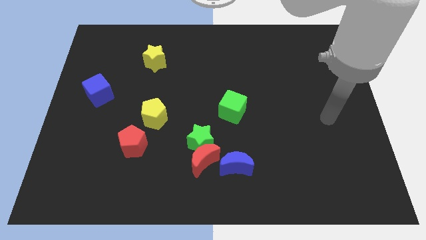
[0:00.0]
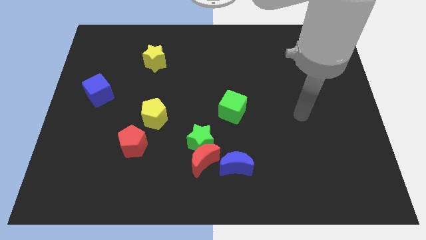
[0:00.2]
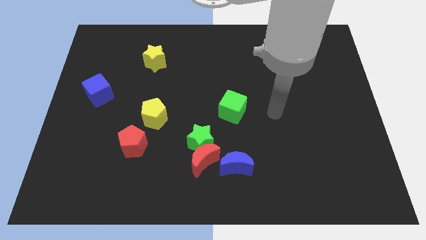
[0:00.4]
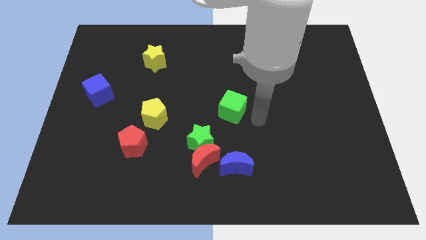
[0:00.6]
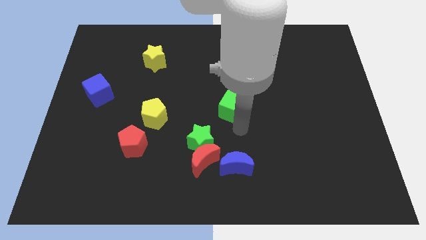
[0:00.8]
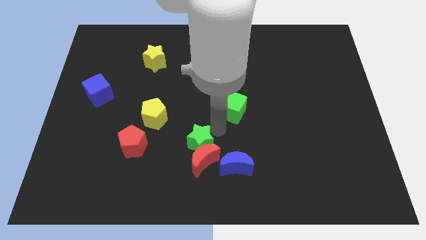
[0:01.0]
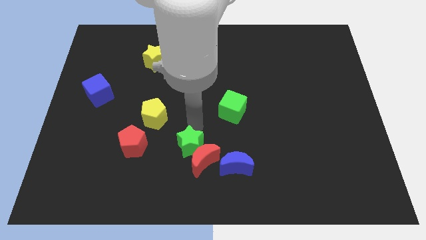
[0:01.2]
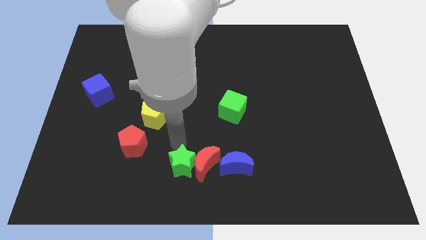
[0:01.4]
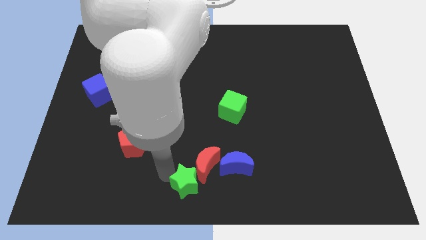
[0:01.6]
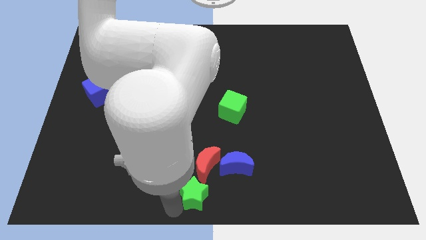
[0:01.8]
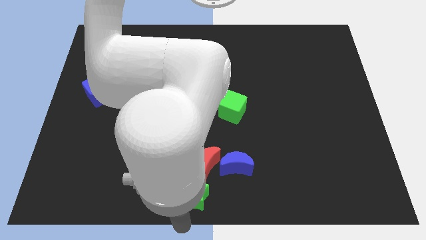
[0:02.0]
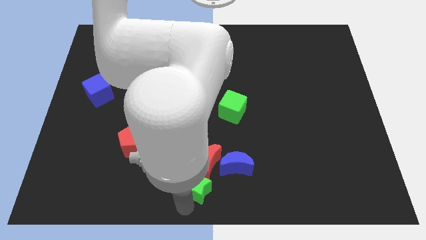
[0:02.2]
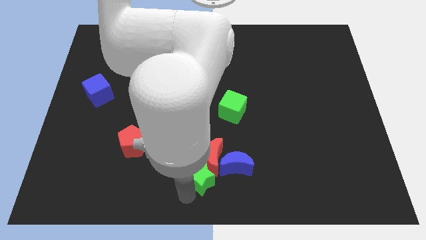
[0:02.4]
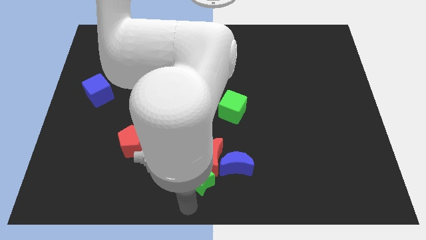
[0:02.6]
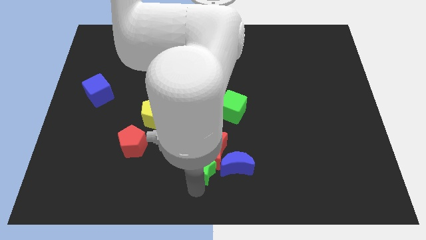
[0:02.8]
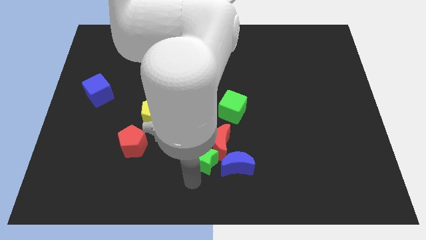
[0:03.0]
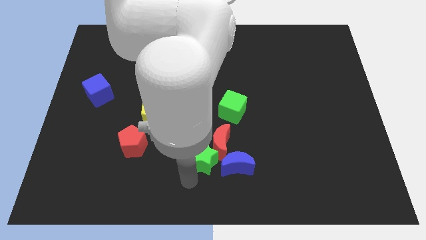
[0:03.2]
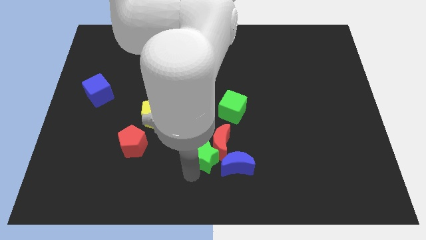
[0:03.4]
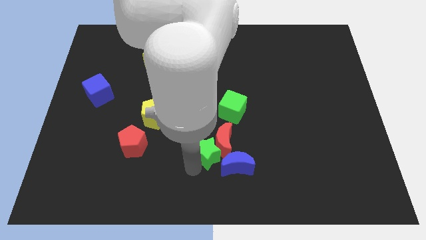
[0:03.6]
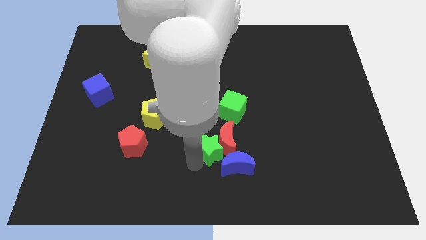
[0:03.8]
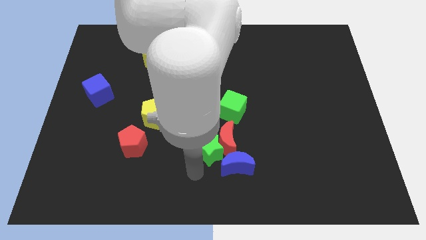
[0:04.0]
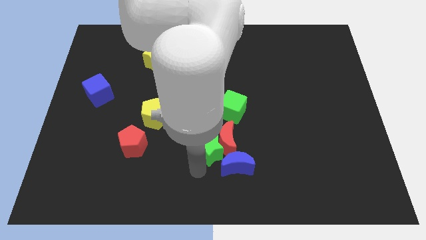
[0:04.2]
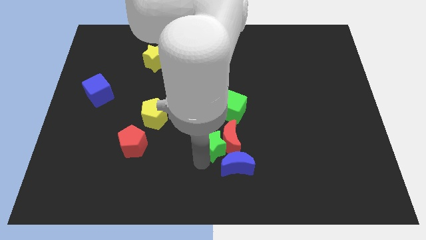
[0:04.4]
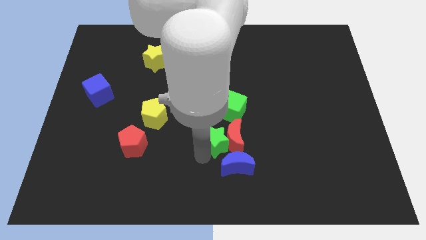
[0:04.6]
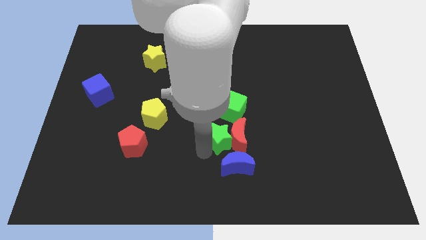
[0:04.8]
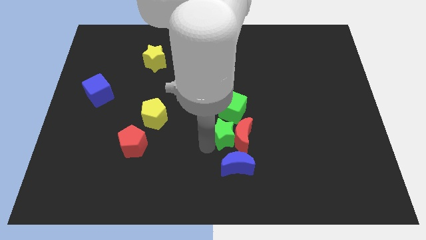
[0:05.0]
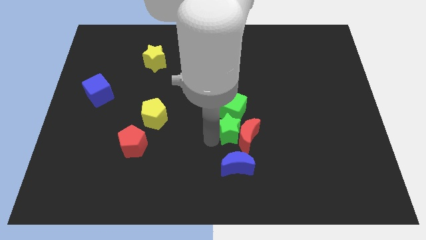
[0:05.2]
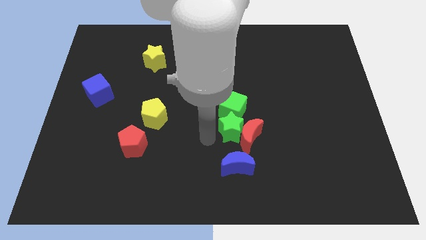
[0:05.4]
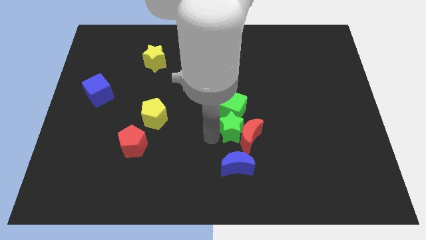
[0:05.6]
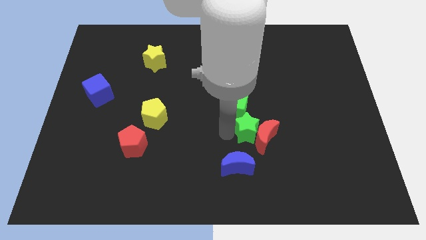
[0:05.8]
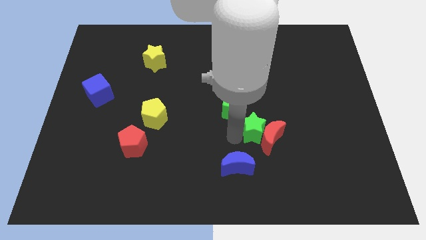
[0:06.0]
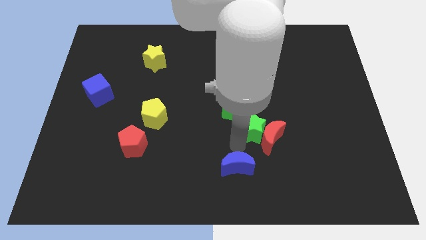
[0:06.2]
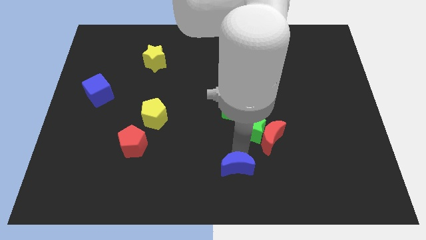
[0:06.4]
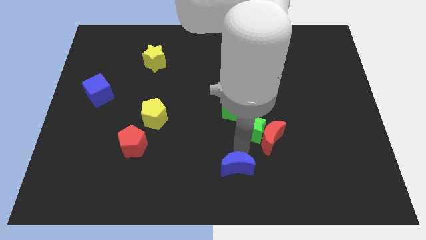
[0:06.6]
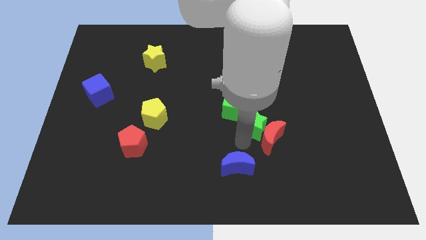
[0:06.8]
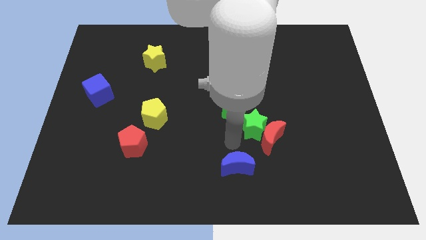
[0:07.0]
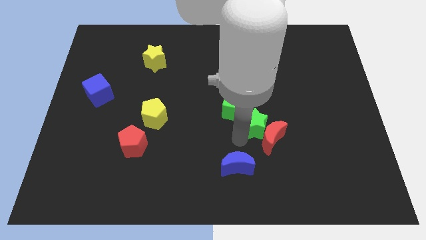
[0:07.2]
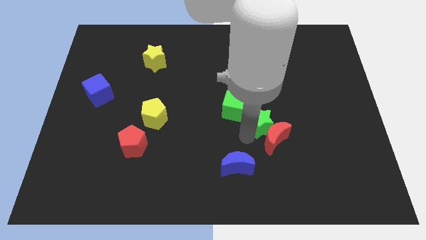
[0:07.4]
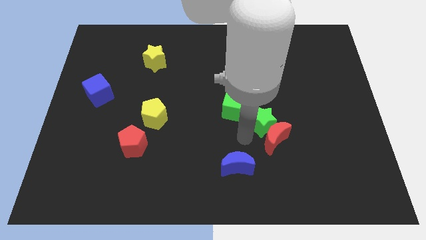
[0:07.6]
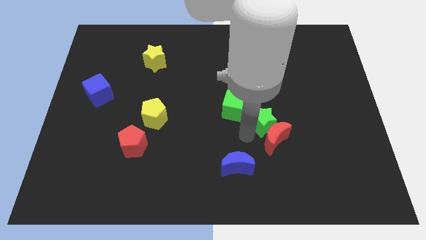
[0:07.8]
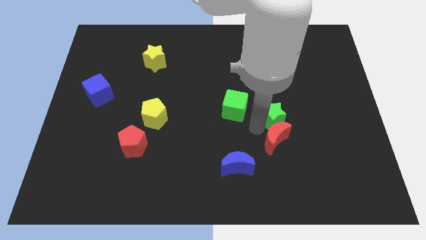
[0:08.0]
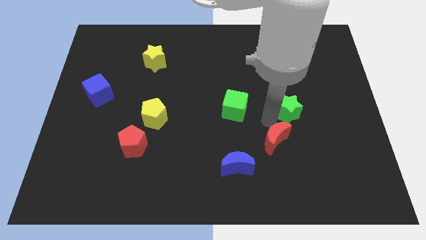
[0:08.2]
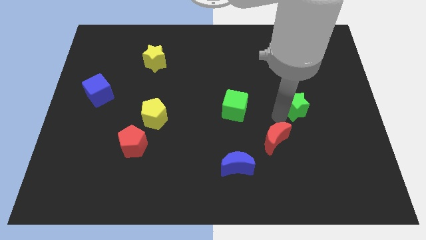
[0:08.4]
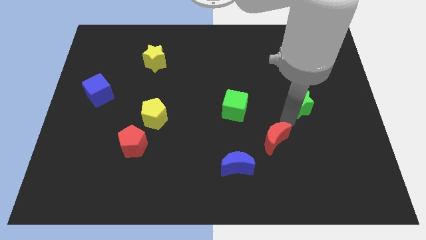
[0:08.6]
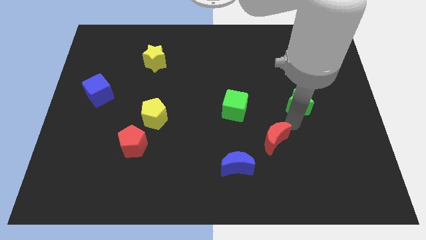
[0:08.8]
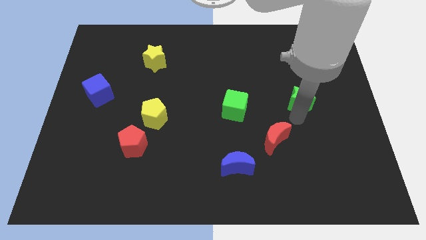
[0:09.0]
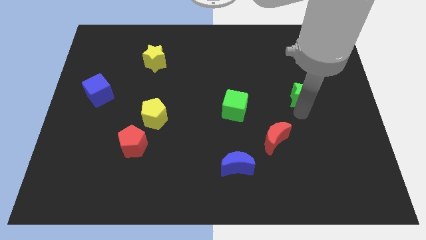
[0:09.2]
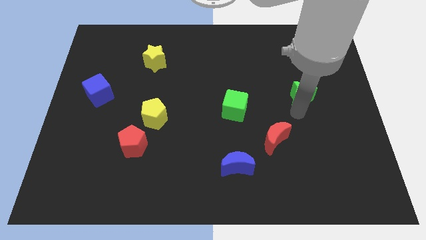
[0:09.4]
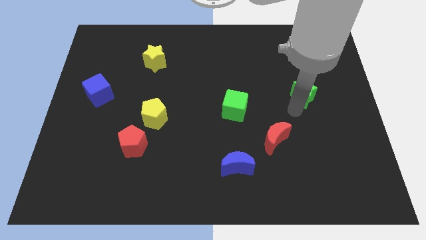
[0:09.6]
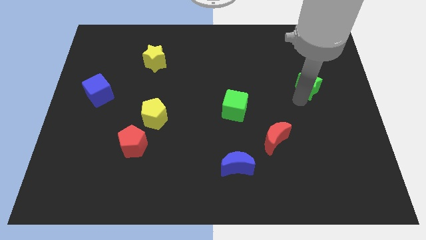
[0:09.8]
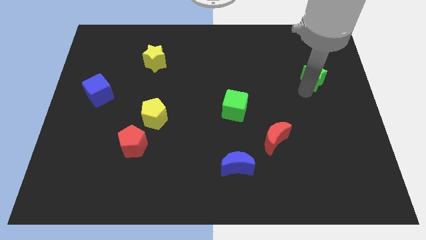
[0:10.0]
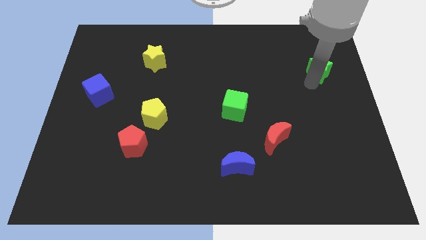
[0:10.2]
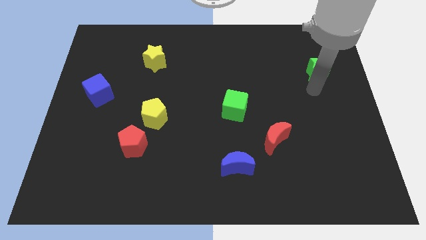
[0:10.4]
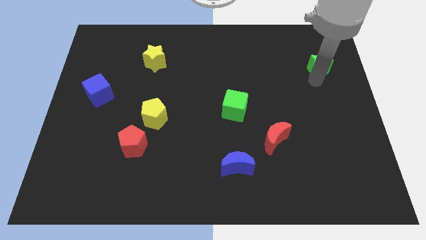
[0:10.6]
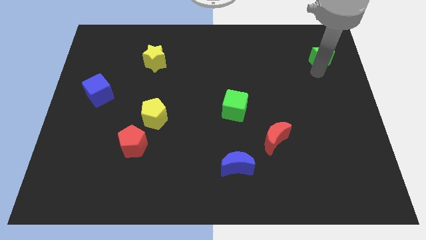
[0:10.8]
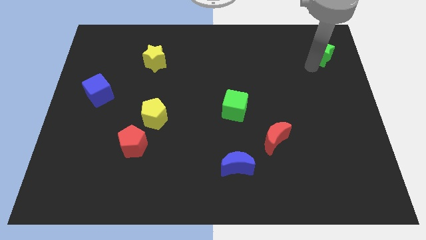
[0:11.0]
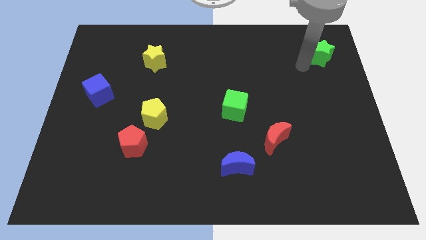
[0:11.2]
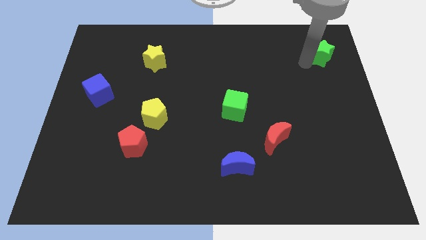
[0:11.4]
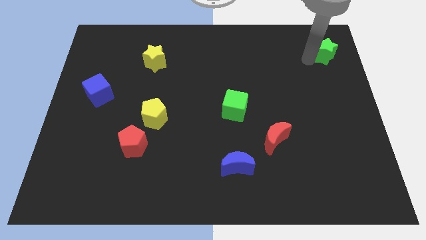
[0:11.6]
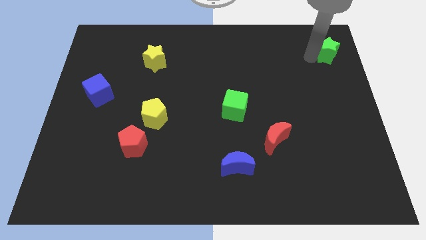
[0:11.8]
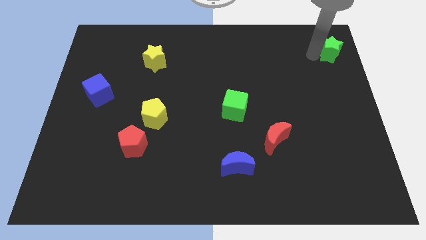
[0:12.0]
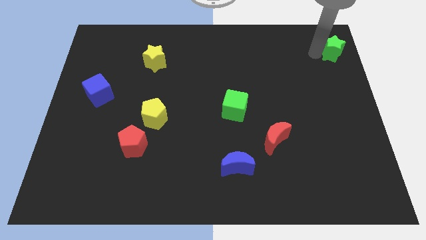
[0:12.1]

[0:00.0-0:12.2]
put the green star to the top right corner

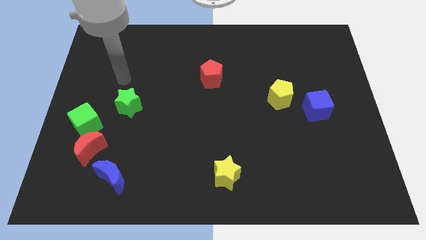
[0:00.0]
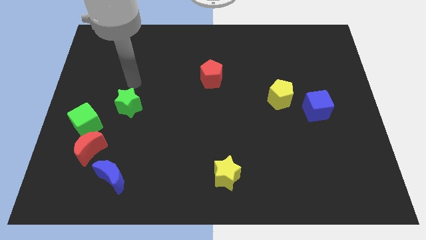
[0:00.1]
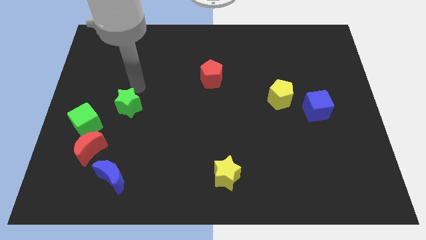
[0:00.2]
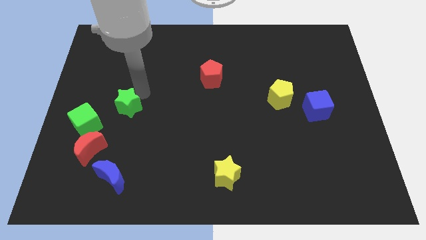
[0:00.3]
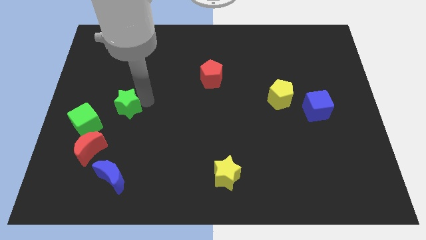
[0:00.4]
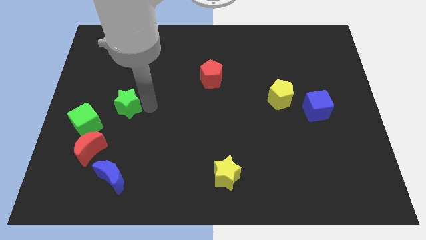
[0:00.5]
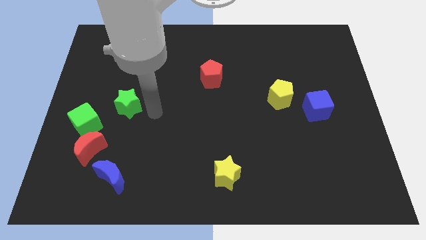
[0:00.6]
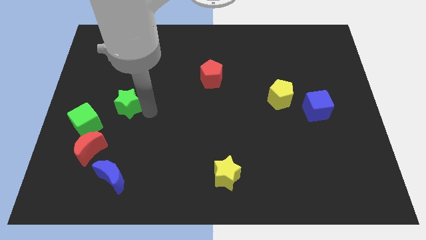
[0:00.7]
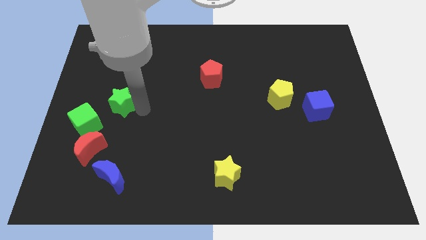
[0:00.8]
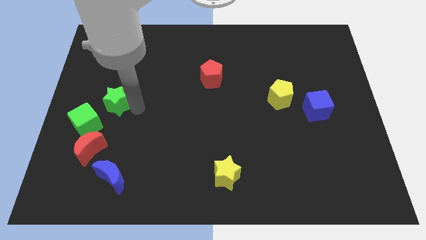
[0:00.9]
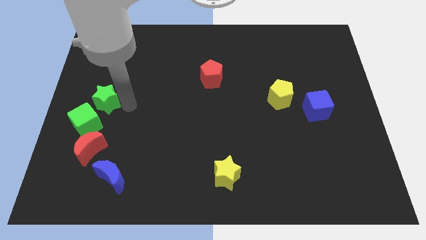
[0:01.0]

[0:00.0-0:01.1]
put the green star to the left side

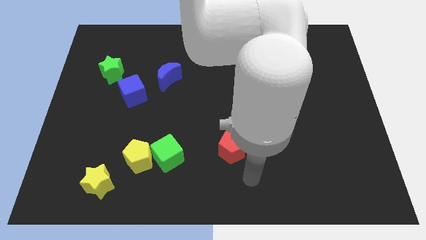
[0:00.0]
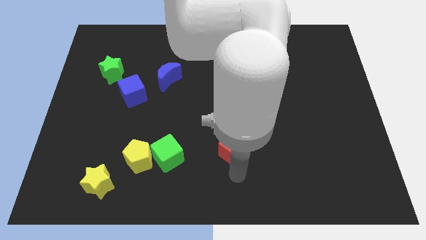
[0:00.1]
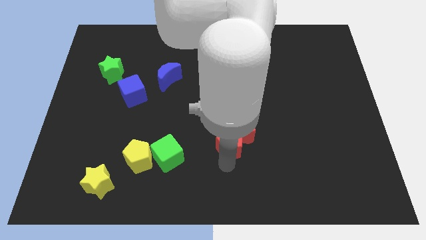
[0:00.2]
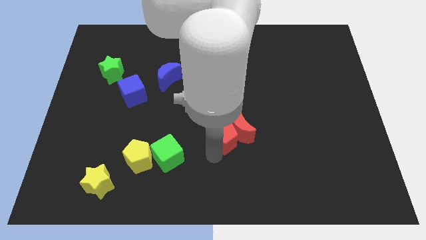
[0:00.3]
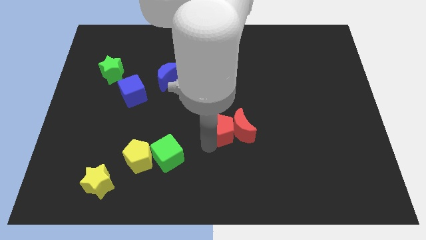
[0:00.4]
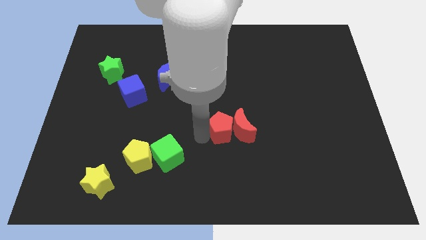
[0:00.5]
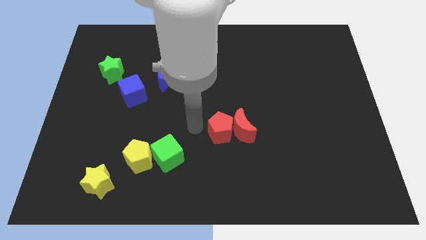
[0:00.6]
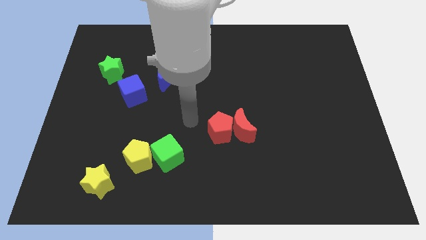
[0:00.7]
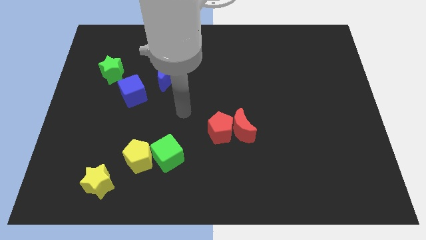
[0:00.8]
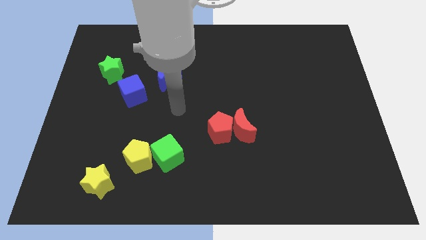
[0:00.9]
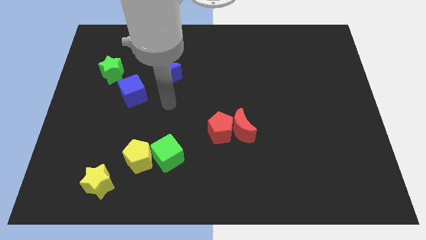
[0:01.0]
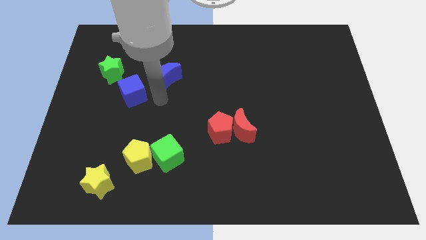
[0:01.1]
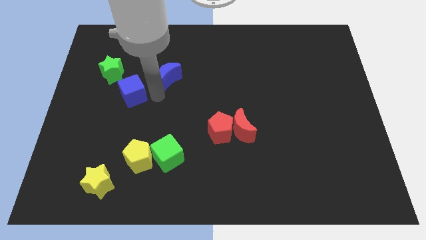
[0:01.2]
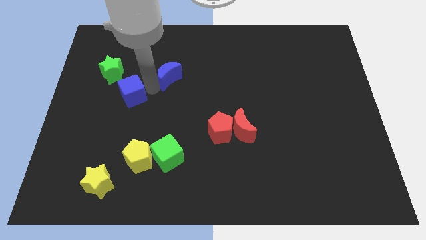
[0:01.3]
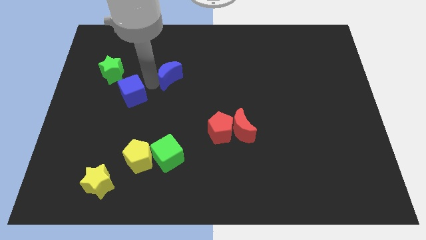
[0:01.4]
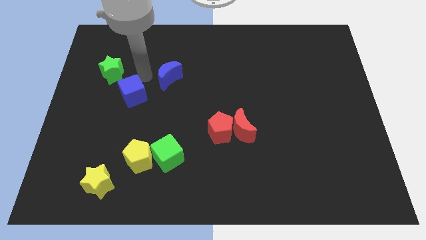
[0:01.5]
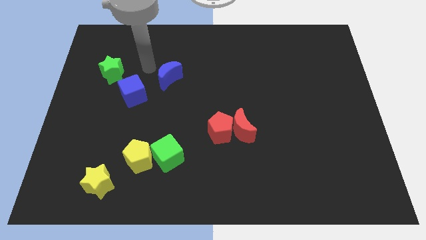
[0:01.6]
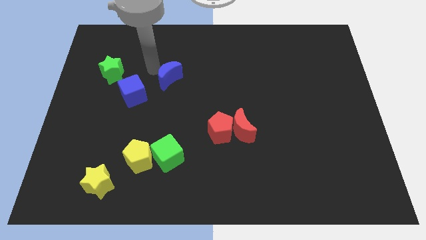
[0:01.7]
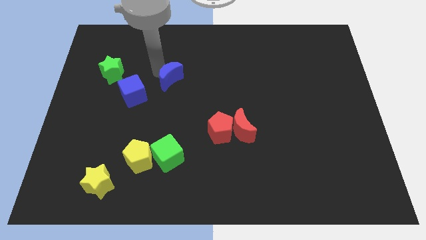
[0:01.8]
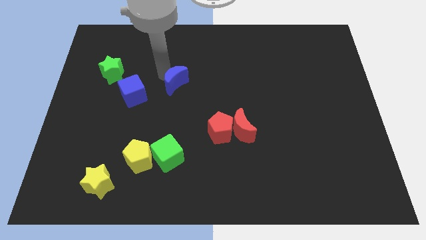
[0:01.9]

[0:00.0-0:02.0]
put the blue moon to the middle
